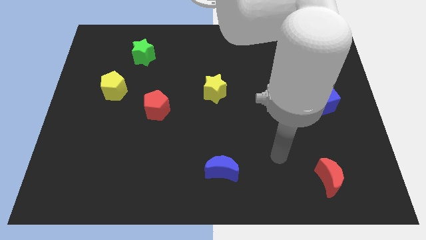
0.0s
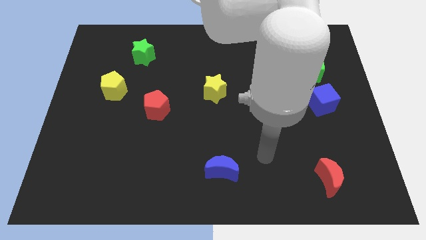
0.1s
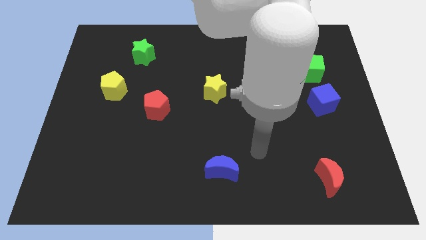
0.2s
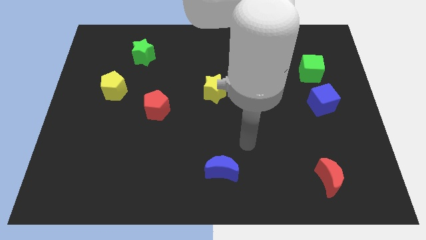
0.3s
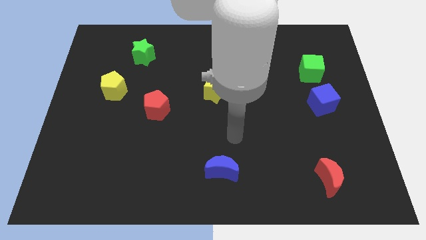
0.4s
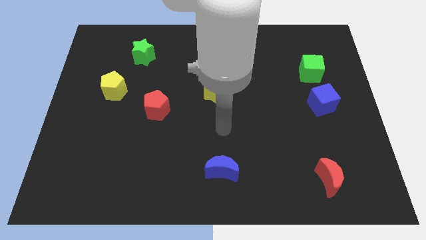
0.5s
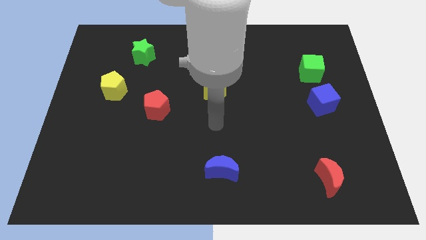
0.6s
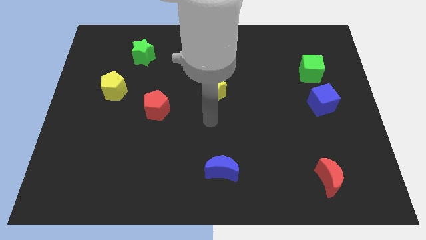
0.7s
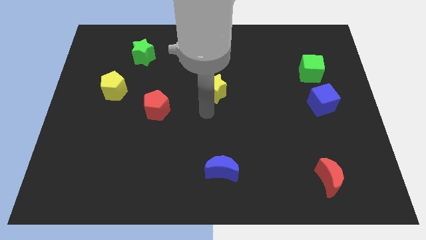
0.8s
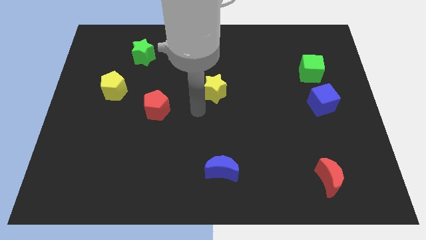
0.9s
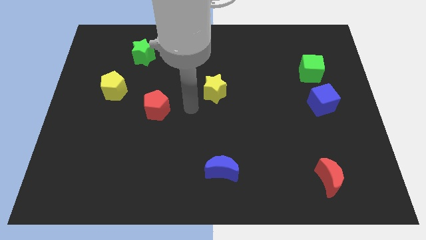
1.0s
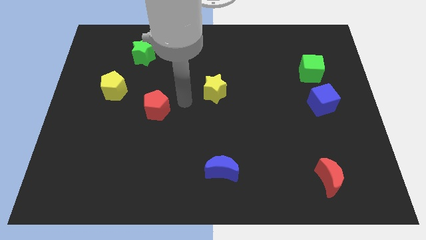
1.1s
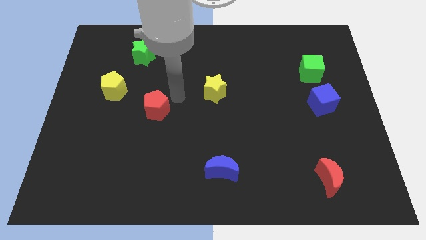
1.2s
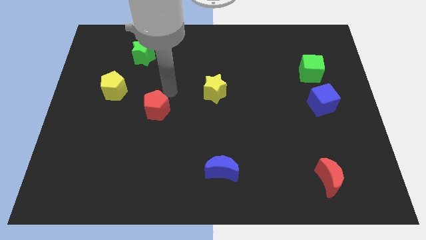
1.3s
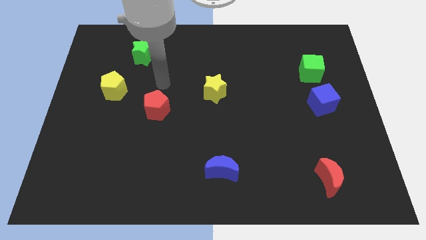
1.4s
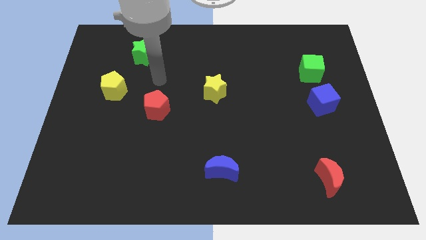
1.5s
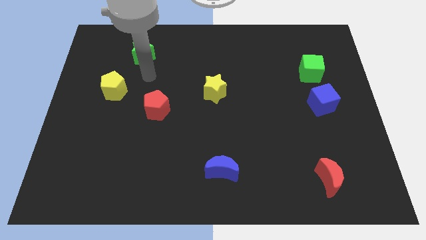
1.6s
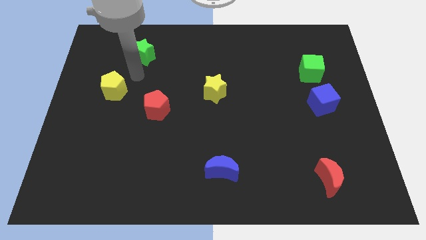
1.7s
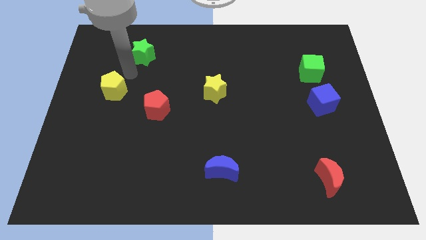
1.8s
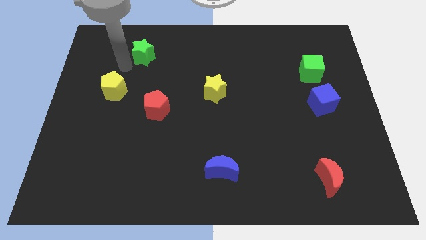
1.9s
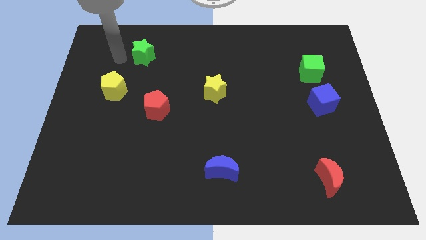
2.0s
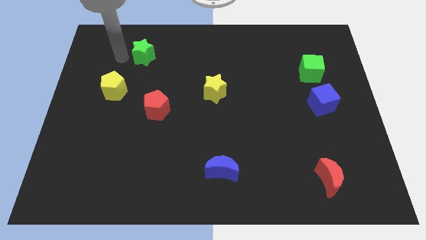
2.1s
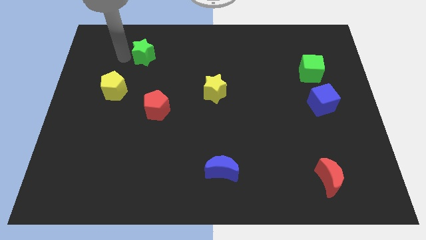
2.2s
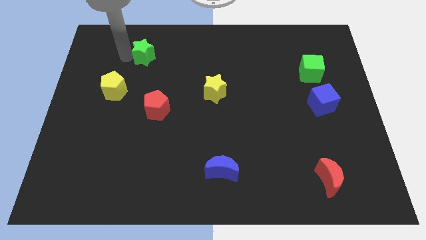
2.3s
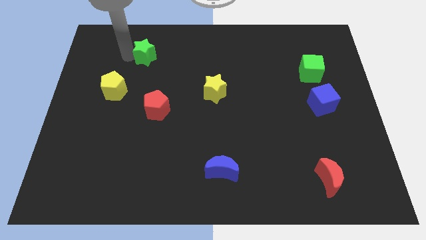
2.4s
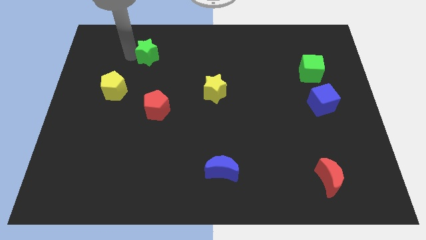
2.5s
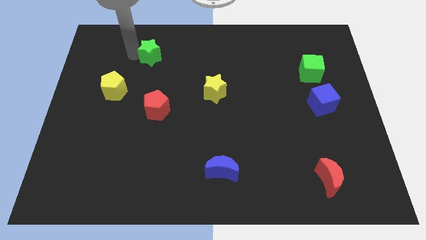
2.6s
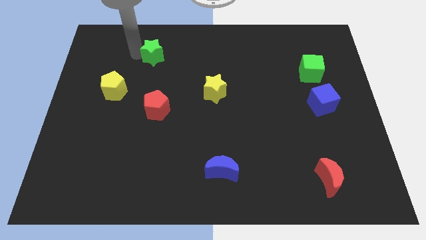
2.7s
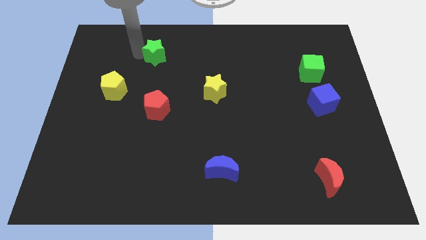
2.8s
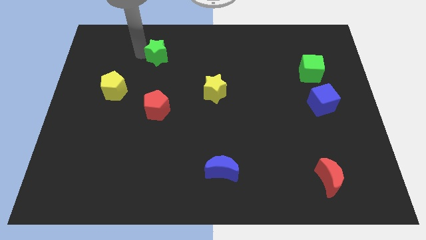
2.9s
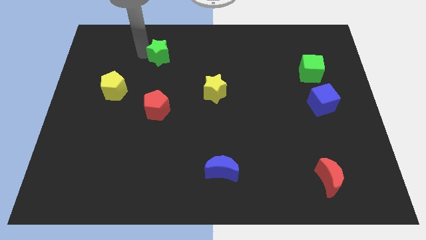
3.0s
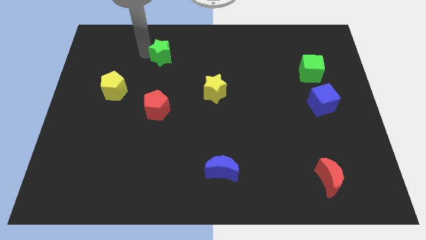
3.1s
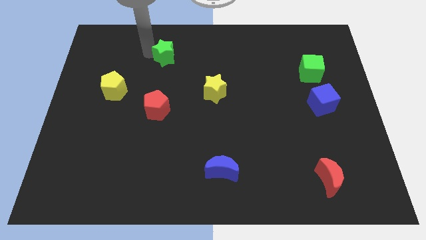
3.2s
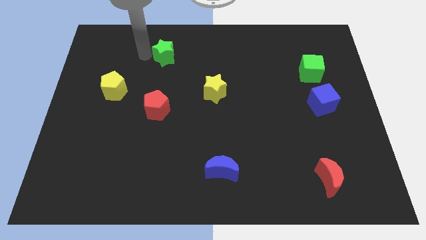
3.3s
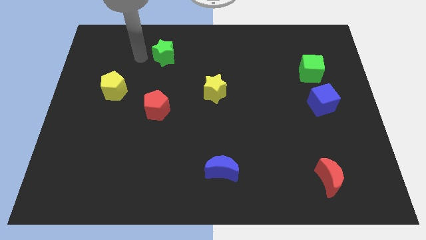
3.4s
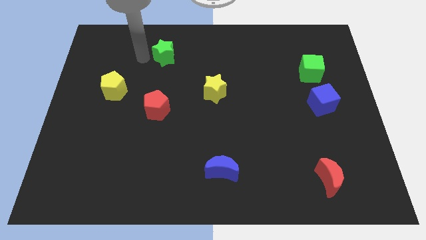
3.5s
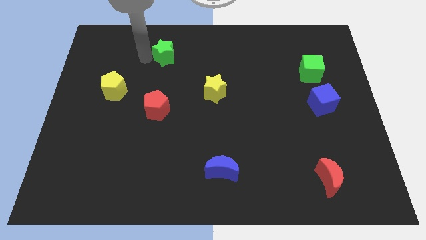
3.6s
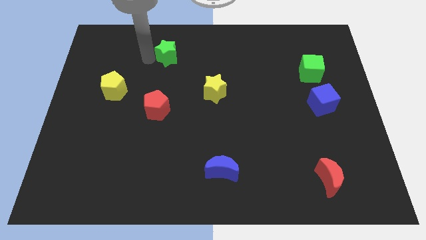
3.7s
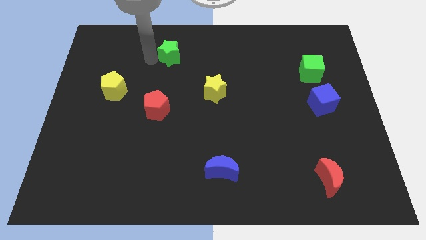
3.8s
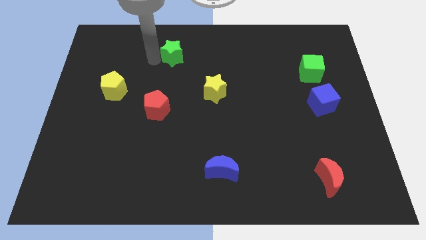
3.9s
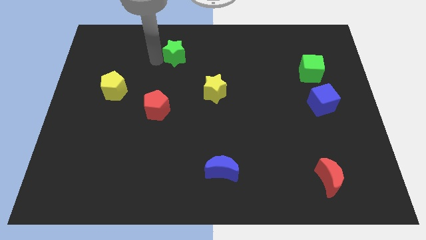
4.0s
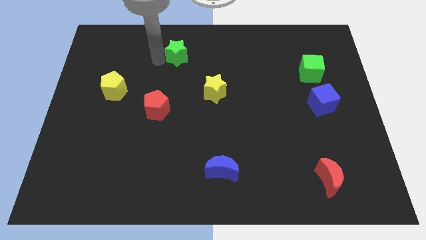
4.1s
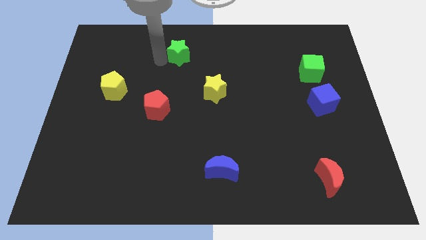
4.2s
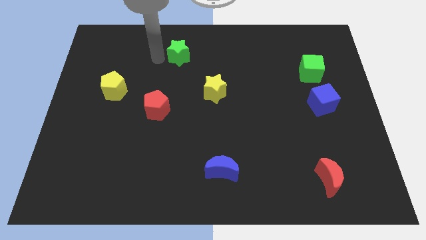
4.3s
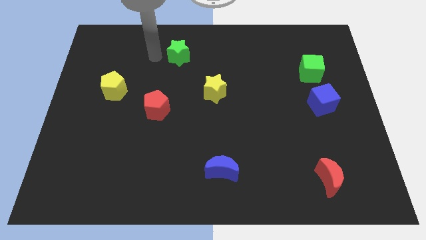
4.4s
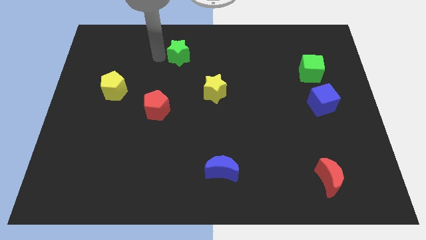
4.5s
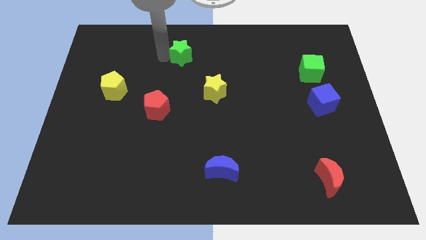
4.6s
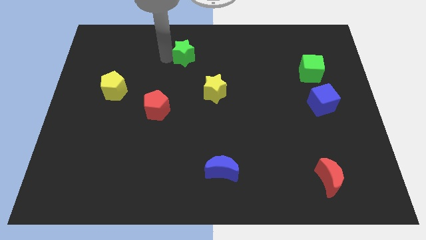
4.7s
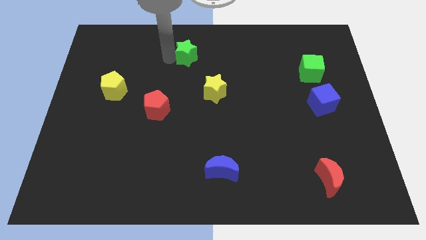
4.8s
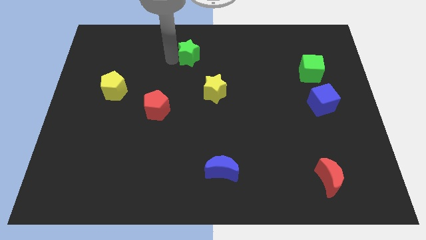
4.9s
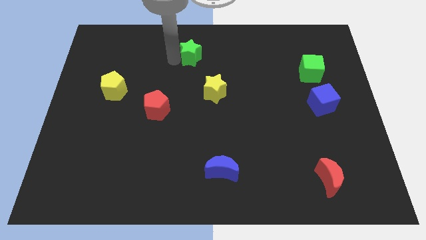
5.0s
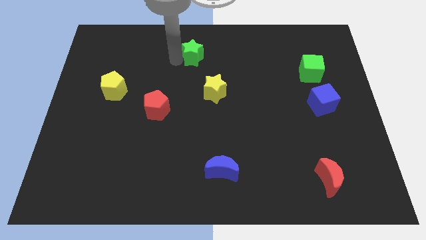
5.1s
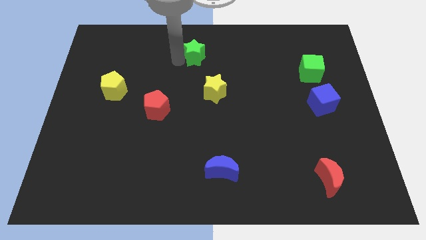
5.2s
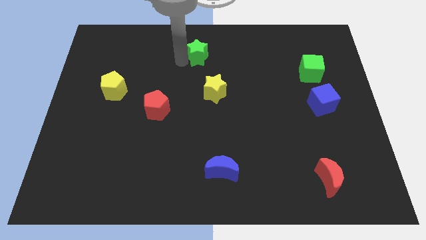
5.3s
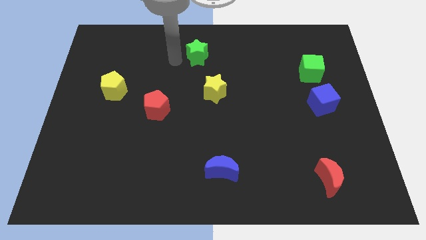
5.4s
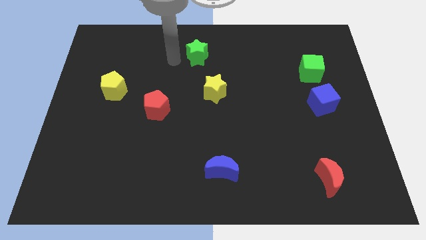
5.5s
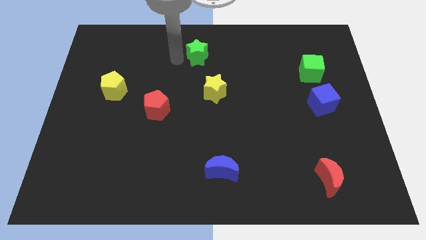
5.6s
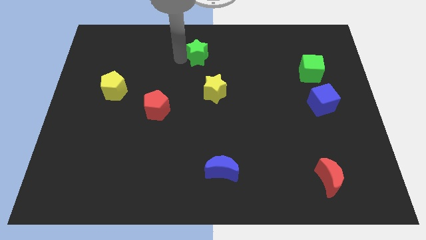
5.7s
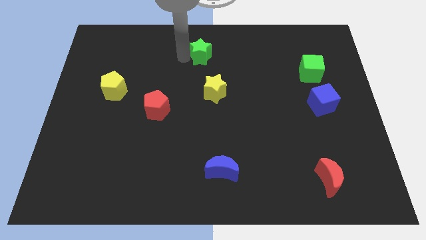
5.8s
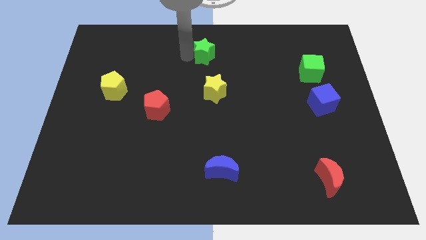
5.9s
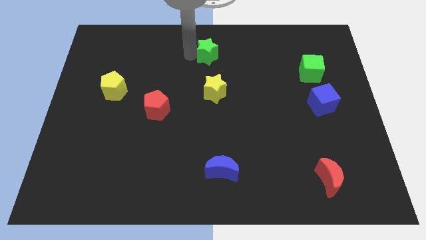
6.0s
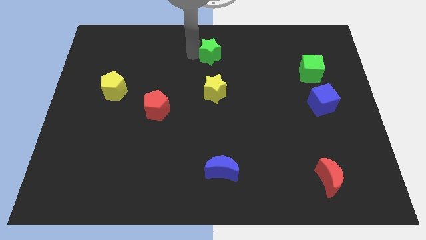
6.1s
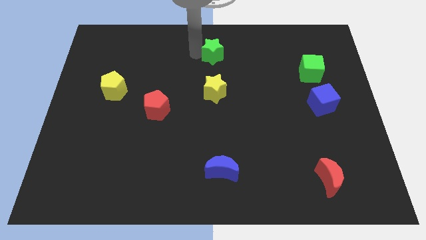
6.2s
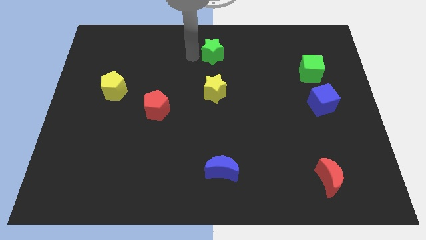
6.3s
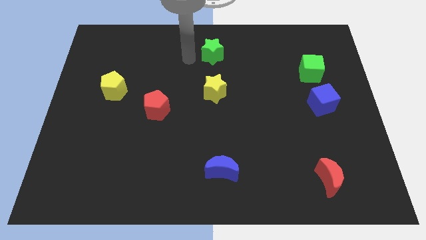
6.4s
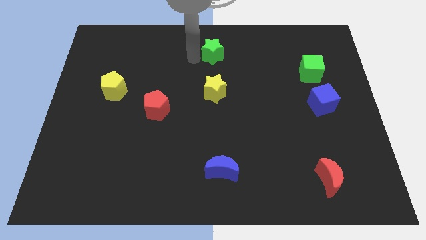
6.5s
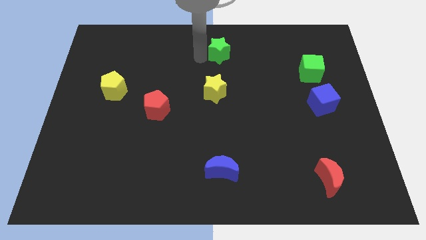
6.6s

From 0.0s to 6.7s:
push the green star right

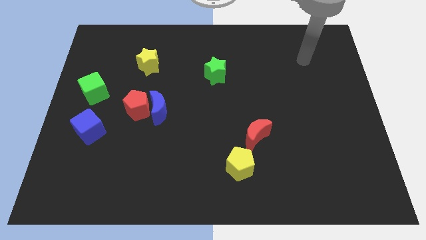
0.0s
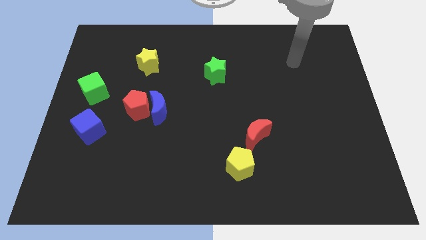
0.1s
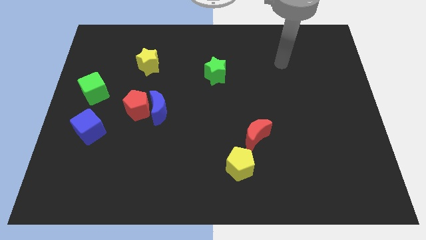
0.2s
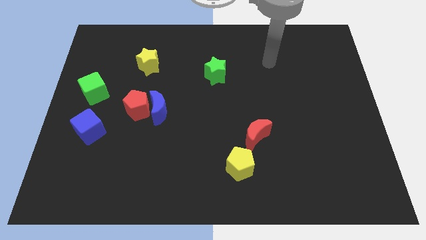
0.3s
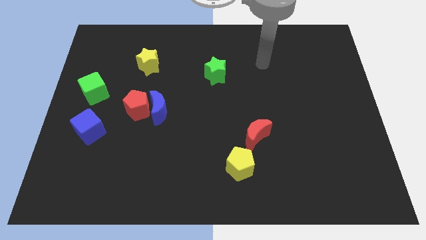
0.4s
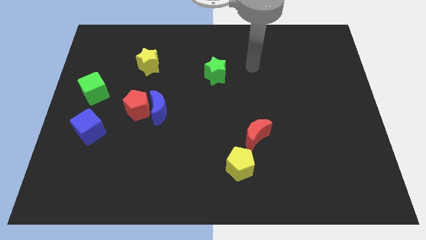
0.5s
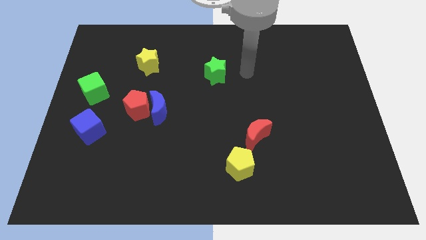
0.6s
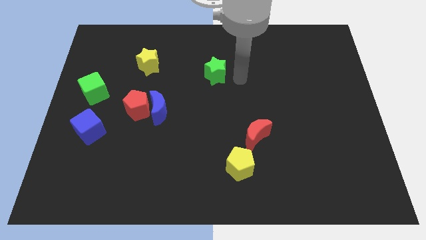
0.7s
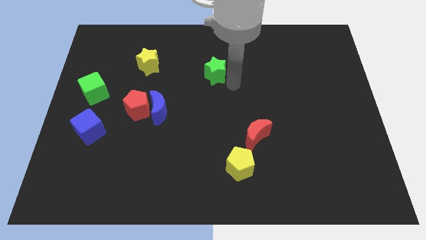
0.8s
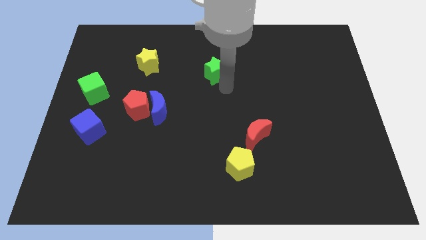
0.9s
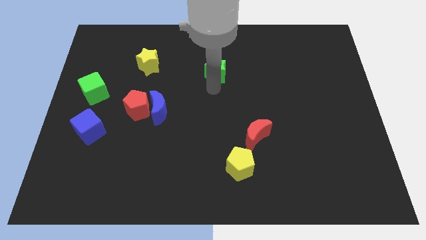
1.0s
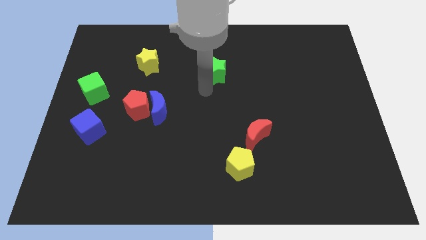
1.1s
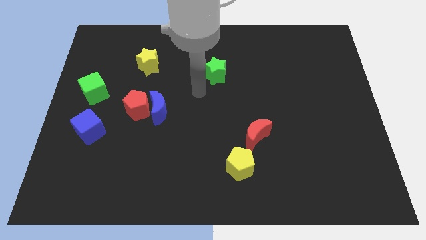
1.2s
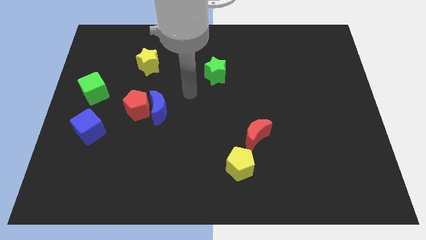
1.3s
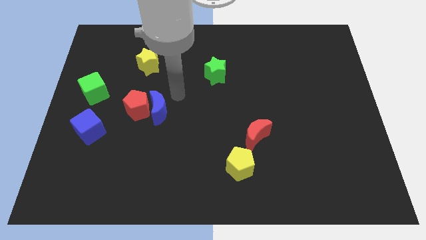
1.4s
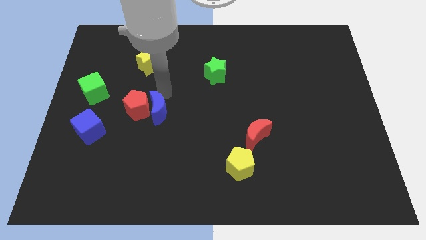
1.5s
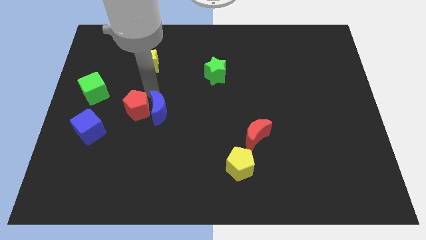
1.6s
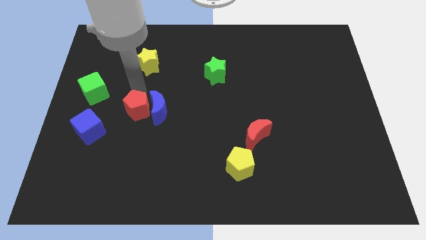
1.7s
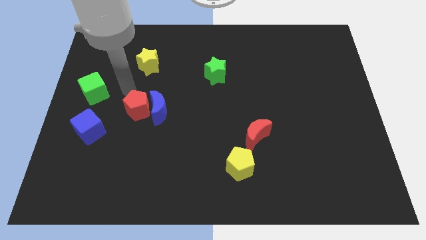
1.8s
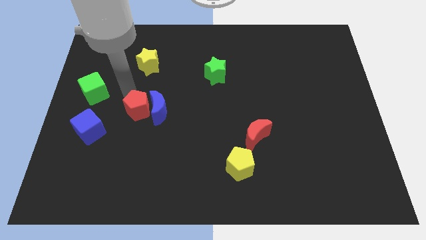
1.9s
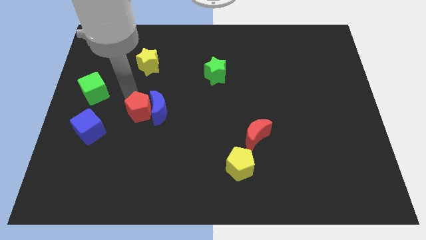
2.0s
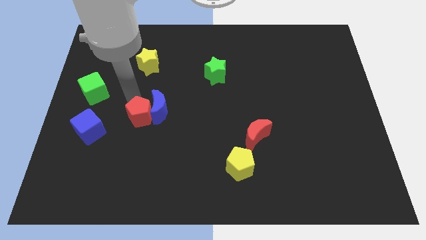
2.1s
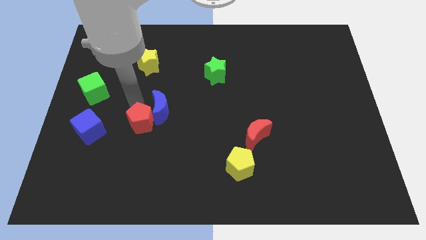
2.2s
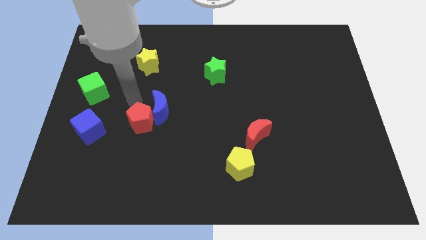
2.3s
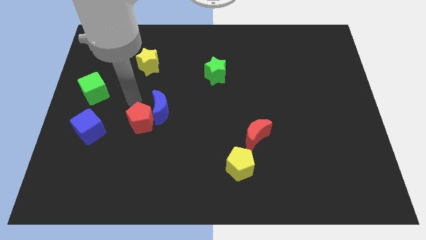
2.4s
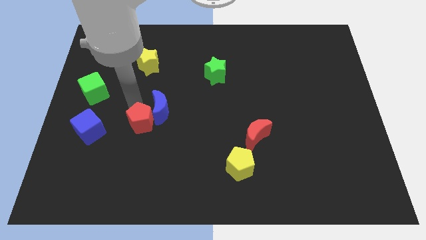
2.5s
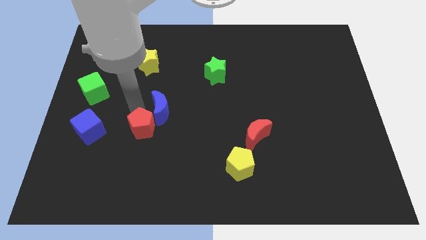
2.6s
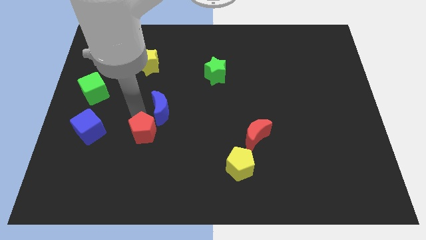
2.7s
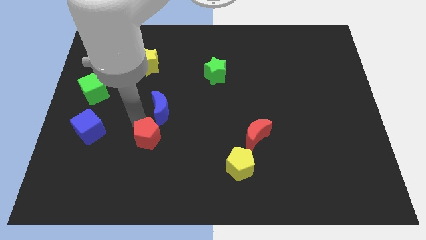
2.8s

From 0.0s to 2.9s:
move the red pentagon down and right diagonally a little bit
